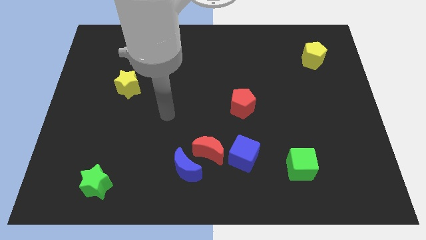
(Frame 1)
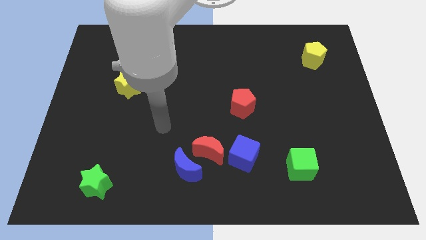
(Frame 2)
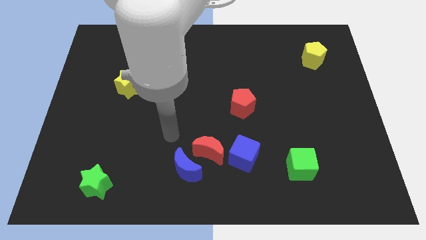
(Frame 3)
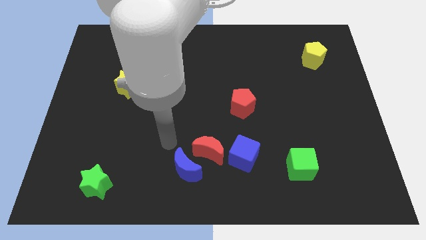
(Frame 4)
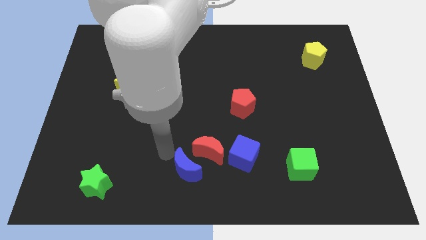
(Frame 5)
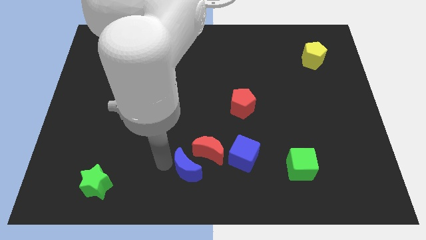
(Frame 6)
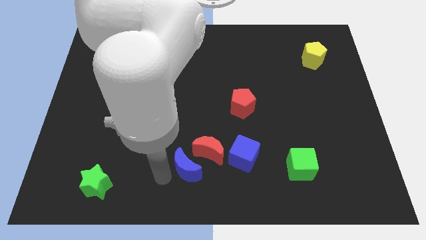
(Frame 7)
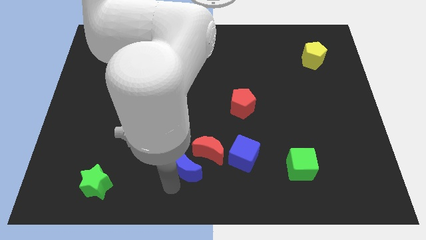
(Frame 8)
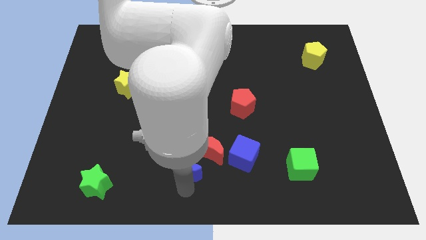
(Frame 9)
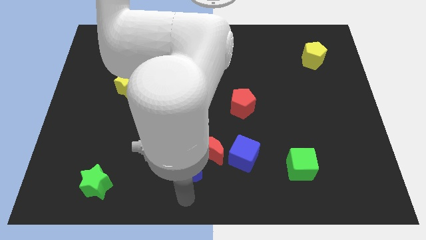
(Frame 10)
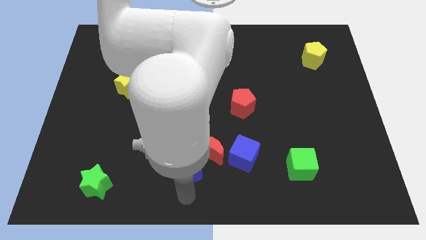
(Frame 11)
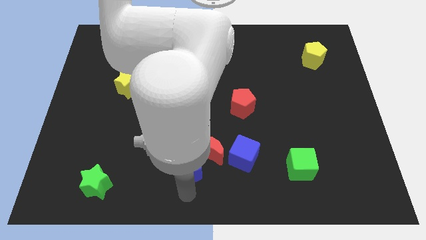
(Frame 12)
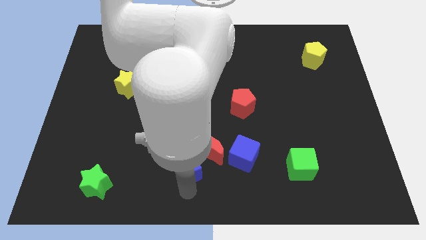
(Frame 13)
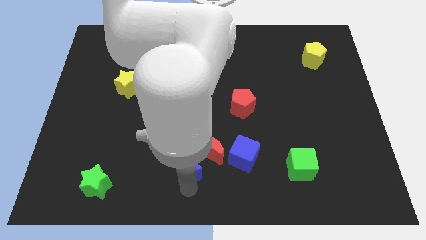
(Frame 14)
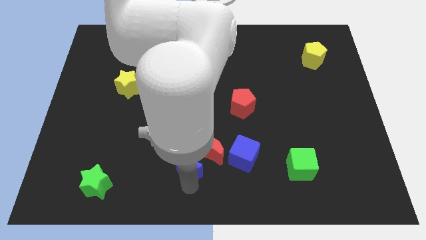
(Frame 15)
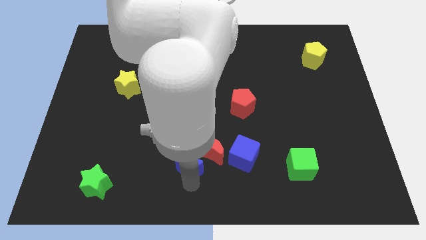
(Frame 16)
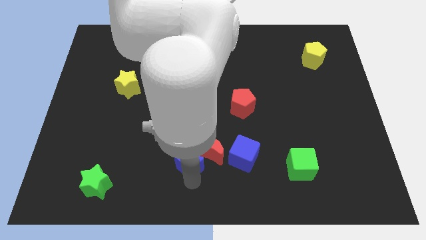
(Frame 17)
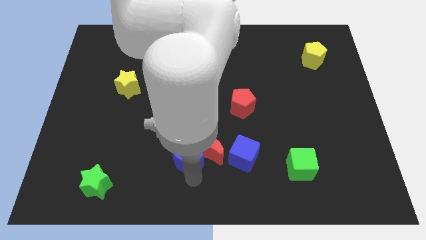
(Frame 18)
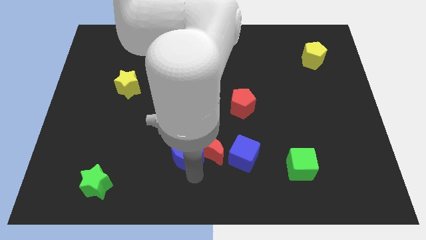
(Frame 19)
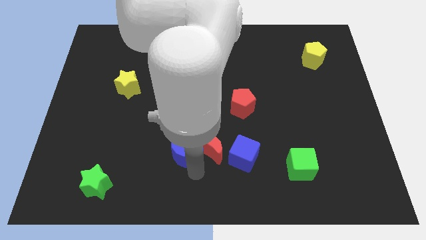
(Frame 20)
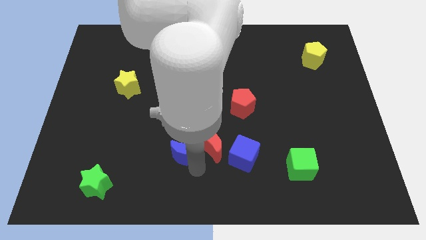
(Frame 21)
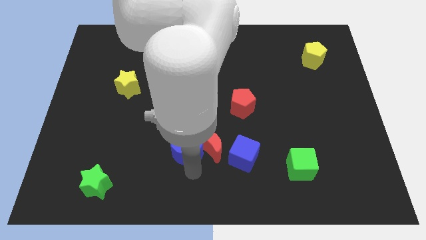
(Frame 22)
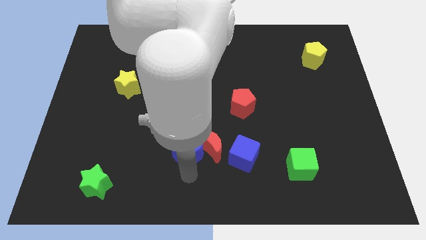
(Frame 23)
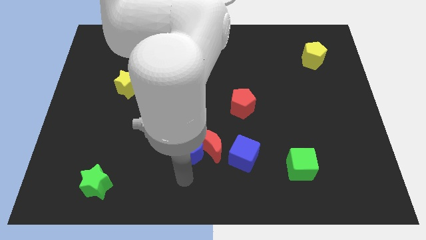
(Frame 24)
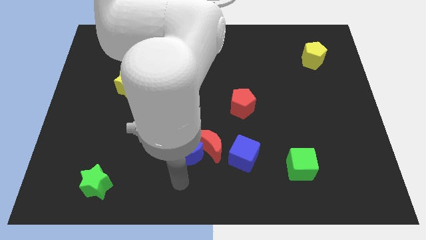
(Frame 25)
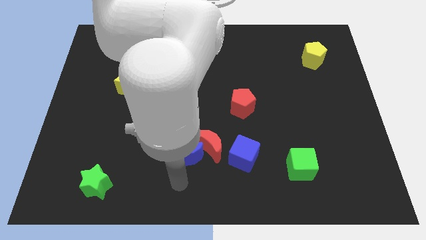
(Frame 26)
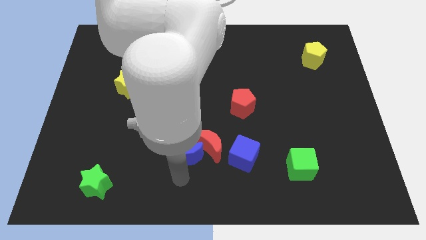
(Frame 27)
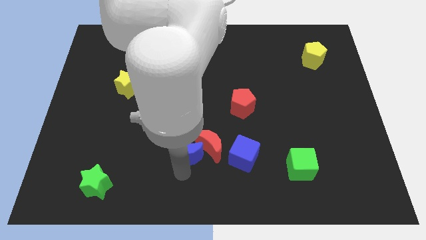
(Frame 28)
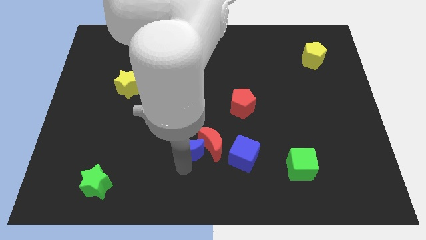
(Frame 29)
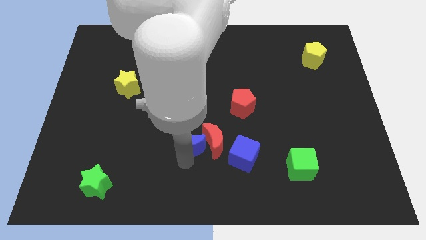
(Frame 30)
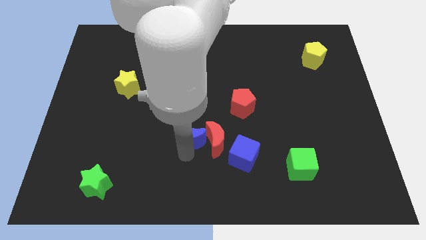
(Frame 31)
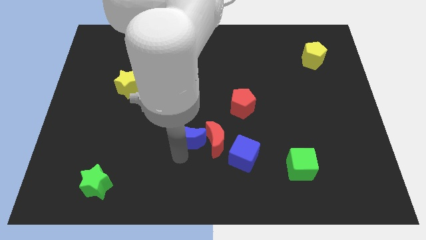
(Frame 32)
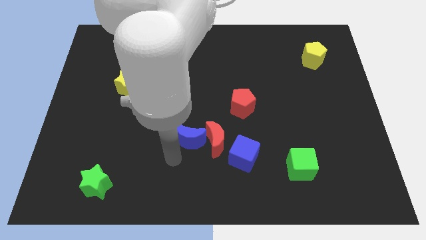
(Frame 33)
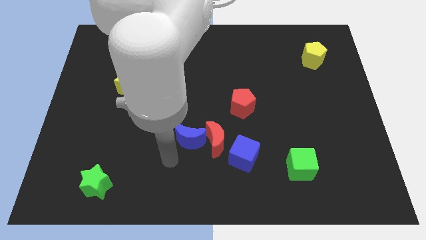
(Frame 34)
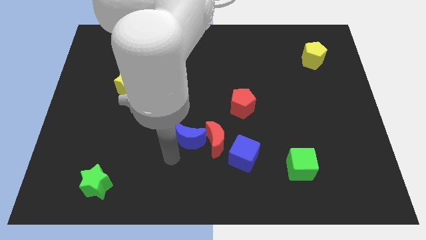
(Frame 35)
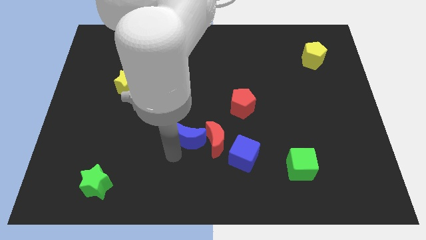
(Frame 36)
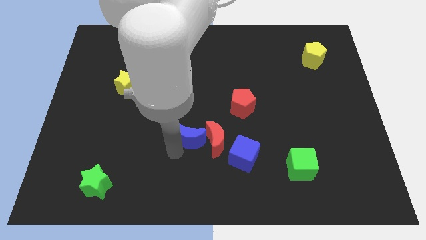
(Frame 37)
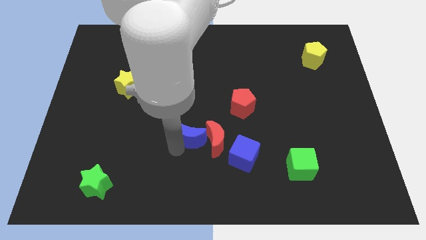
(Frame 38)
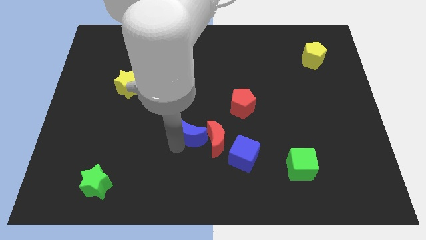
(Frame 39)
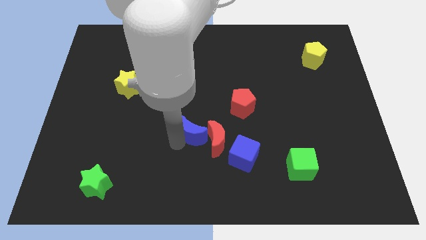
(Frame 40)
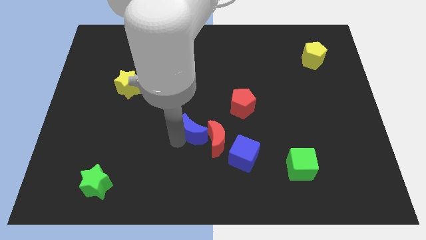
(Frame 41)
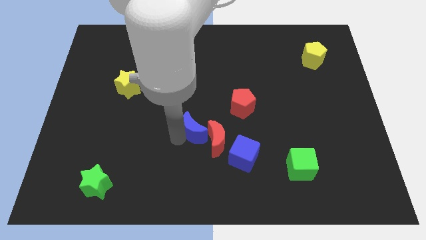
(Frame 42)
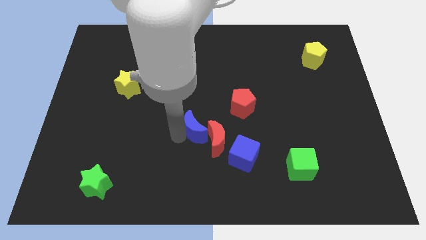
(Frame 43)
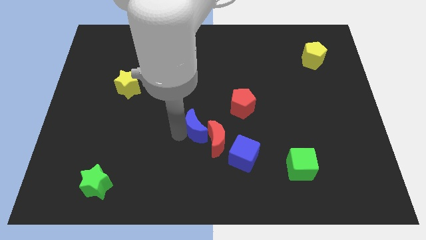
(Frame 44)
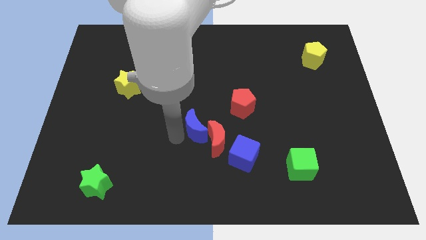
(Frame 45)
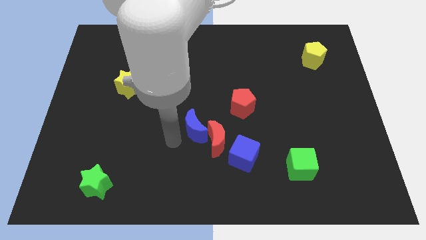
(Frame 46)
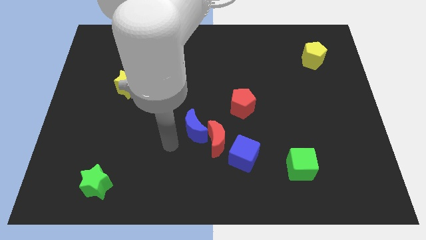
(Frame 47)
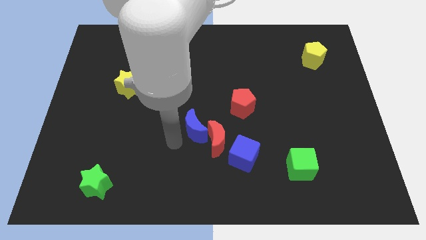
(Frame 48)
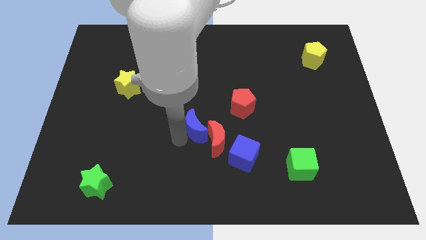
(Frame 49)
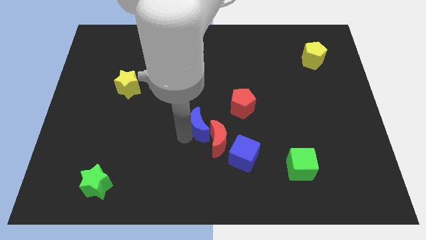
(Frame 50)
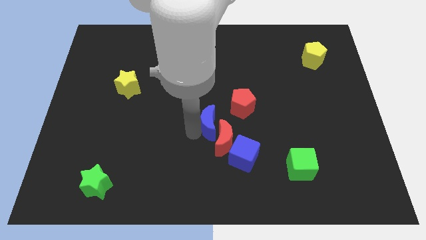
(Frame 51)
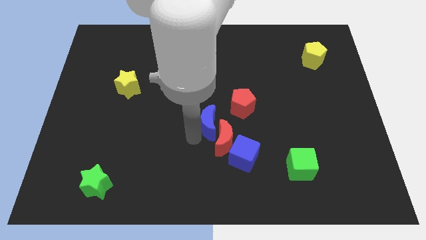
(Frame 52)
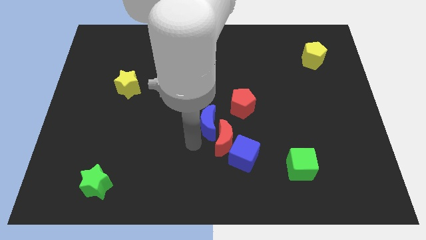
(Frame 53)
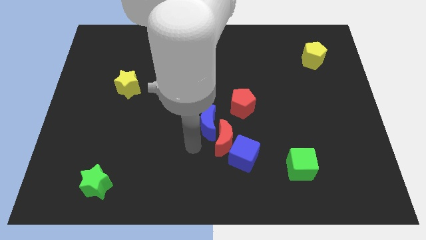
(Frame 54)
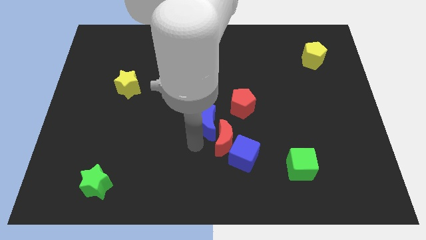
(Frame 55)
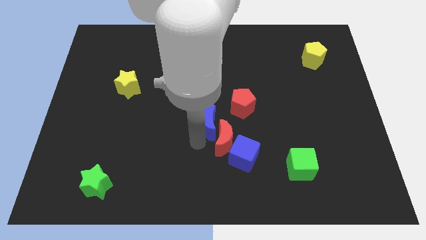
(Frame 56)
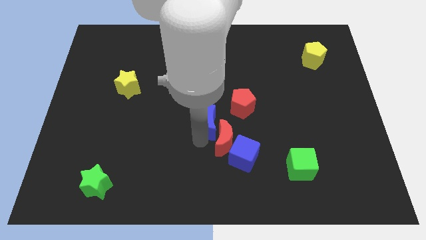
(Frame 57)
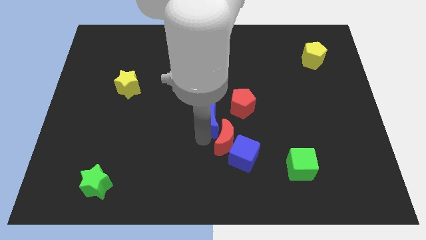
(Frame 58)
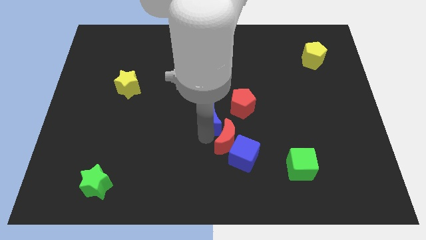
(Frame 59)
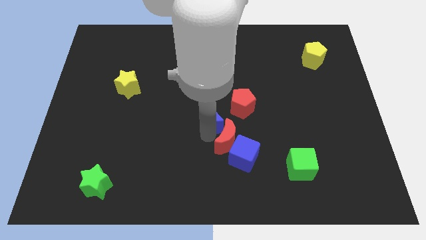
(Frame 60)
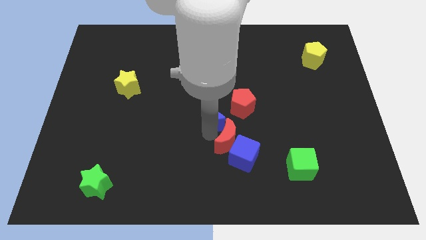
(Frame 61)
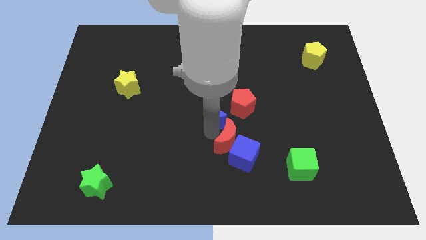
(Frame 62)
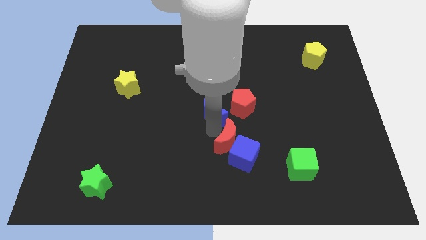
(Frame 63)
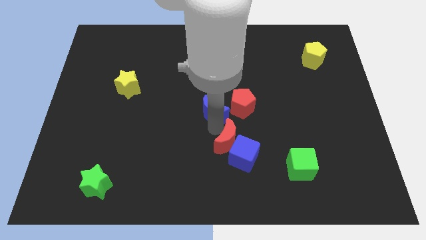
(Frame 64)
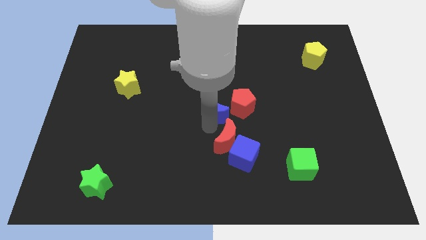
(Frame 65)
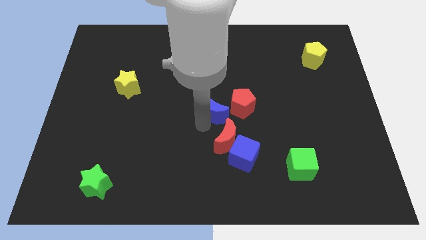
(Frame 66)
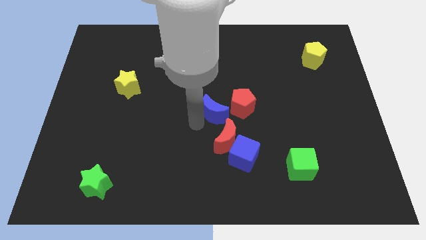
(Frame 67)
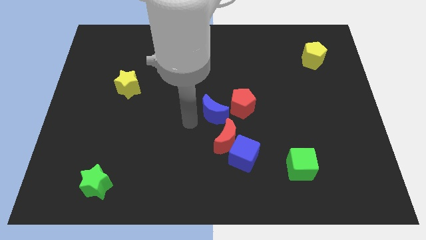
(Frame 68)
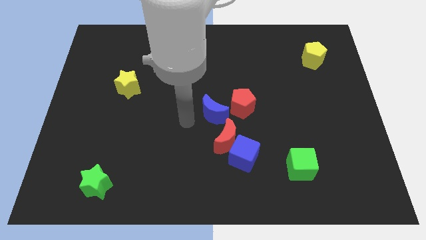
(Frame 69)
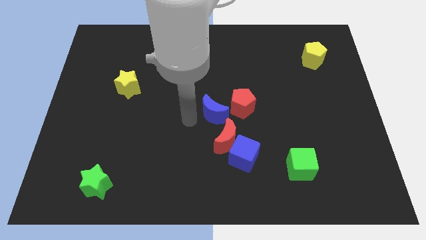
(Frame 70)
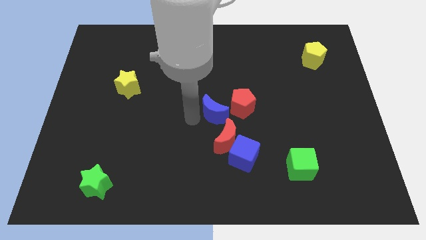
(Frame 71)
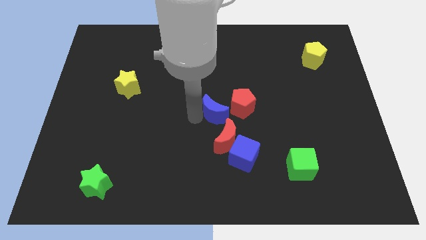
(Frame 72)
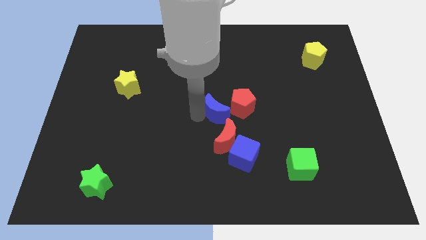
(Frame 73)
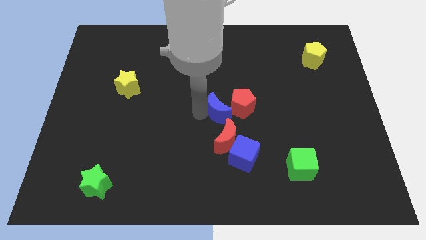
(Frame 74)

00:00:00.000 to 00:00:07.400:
slide the blue moon close to the red pentagon

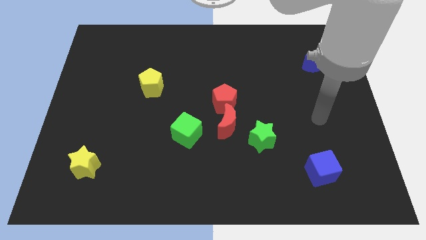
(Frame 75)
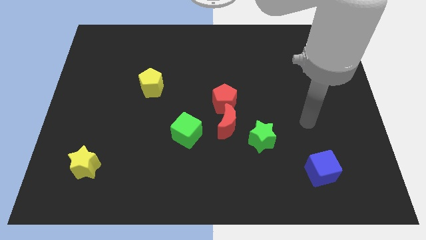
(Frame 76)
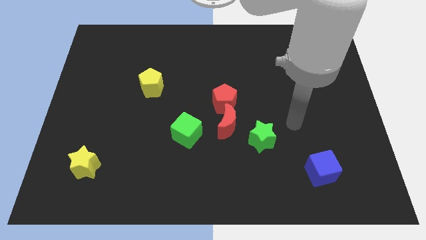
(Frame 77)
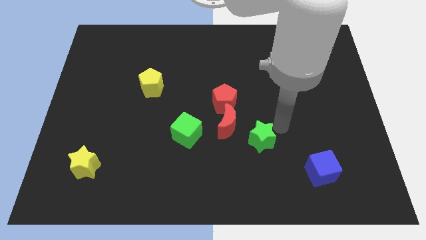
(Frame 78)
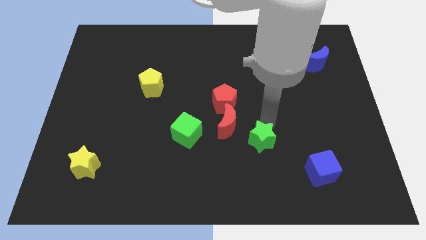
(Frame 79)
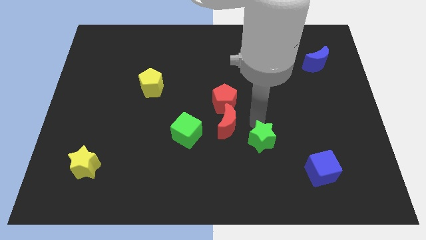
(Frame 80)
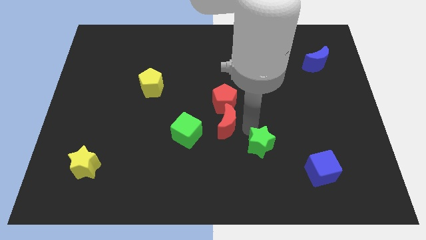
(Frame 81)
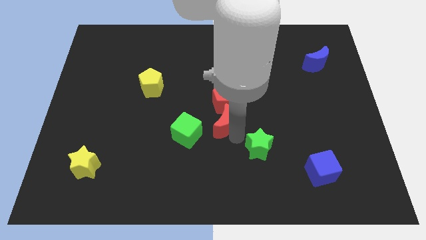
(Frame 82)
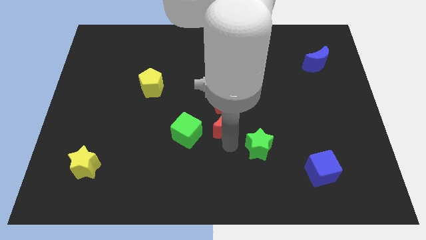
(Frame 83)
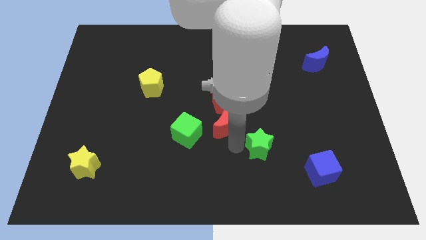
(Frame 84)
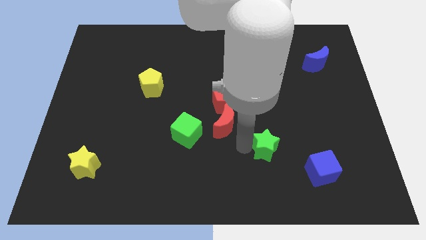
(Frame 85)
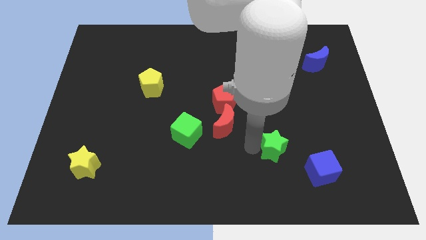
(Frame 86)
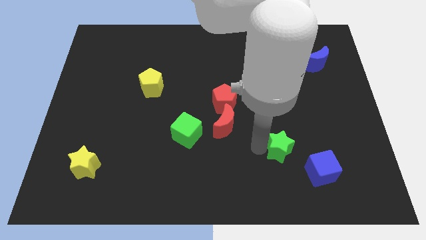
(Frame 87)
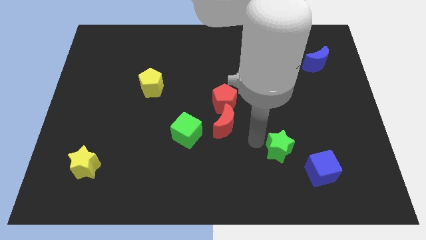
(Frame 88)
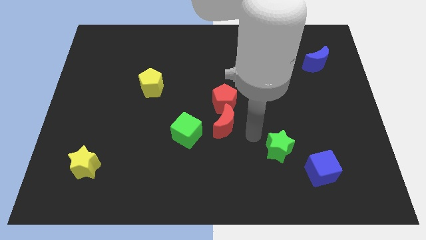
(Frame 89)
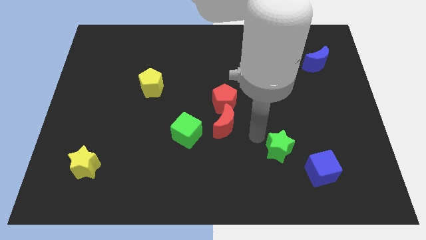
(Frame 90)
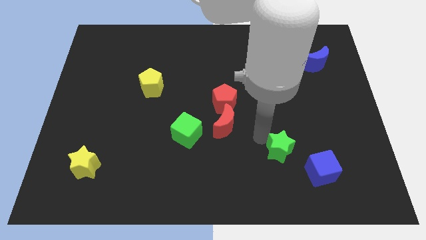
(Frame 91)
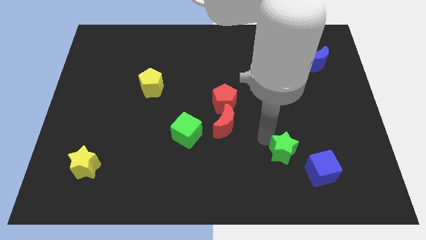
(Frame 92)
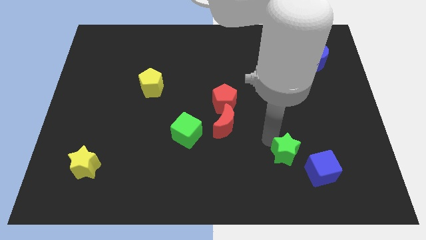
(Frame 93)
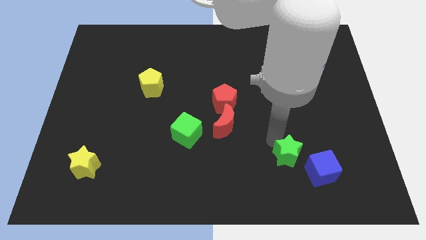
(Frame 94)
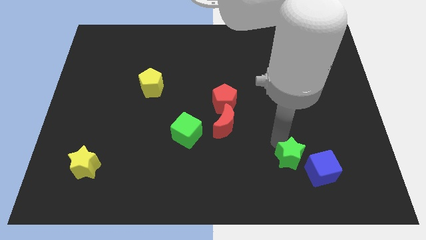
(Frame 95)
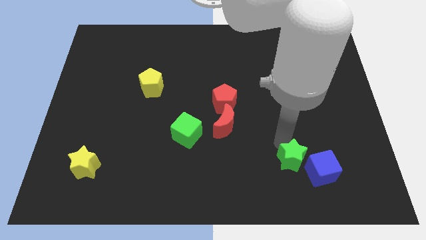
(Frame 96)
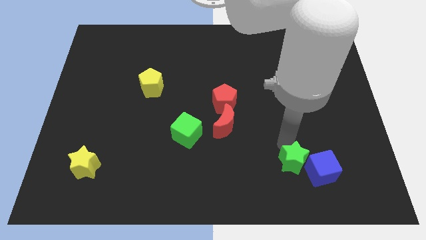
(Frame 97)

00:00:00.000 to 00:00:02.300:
push the green star close to the blue cube
